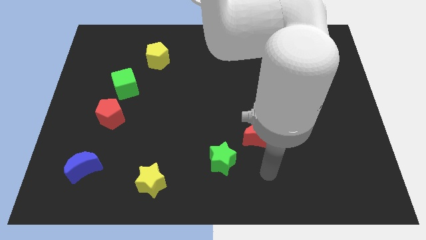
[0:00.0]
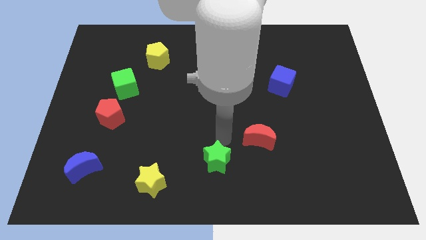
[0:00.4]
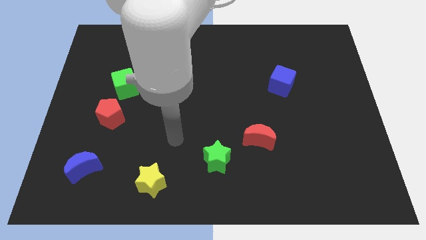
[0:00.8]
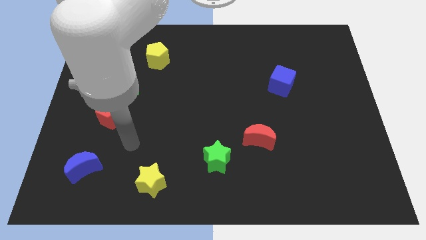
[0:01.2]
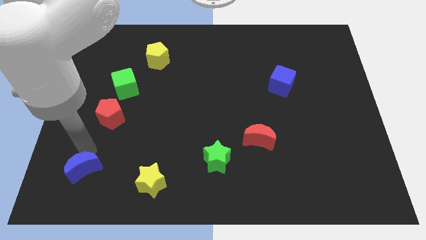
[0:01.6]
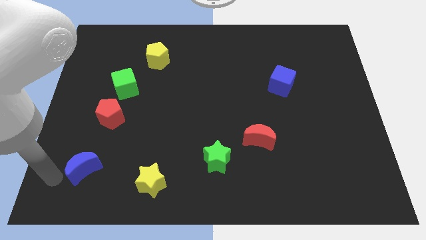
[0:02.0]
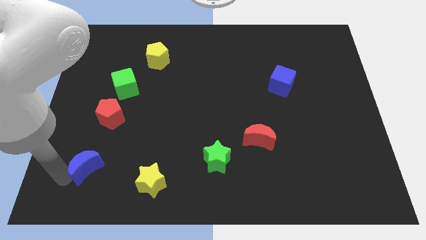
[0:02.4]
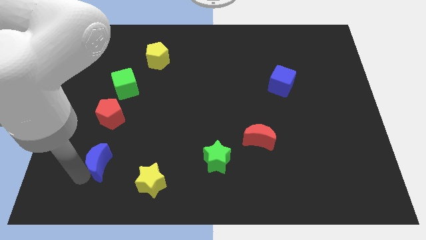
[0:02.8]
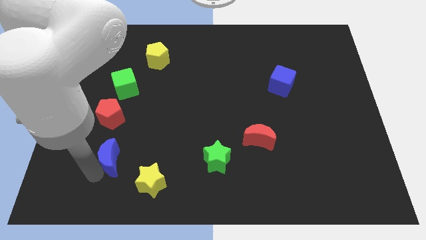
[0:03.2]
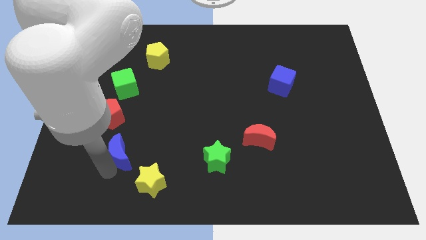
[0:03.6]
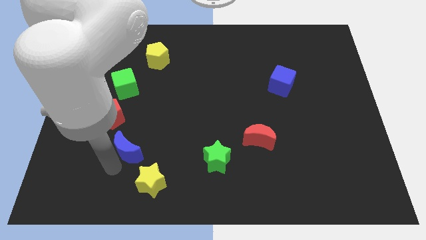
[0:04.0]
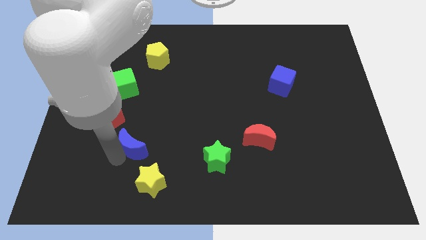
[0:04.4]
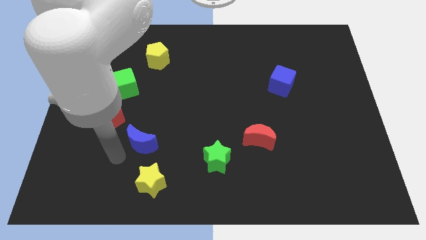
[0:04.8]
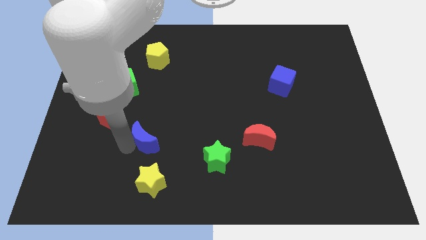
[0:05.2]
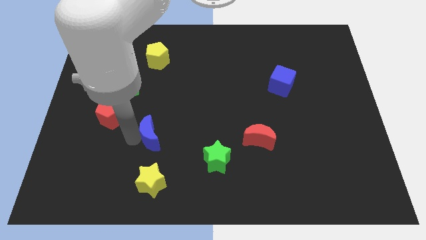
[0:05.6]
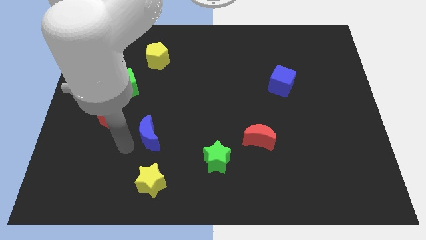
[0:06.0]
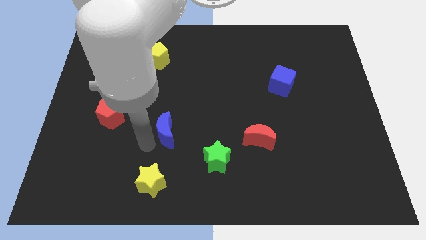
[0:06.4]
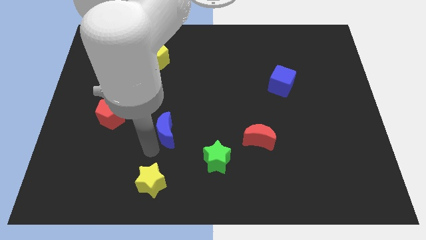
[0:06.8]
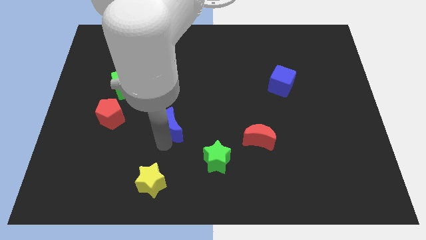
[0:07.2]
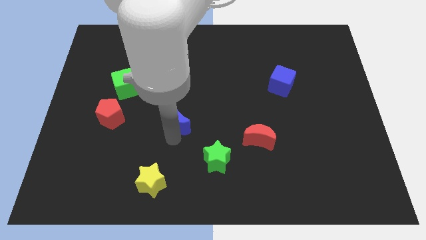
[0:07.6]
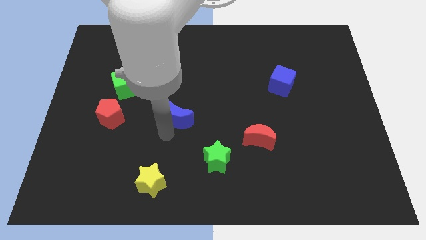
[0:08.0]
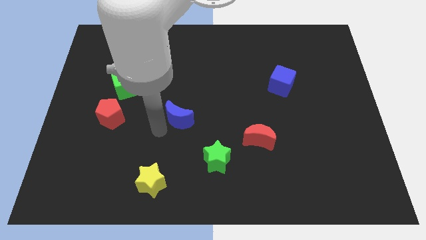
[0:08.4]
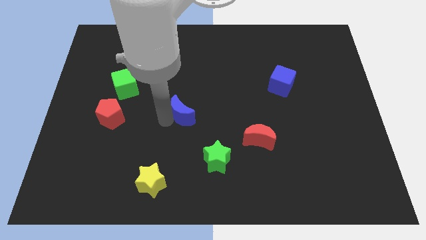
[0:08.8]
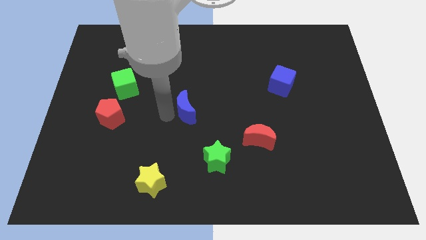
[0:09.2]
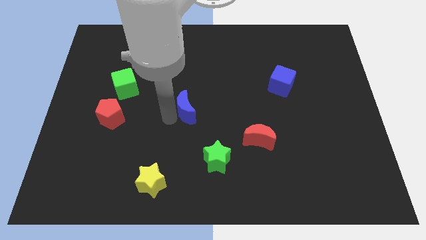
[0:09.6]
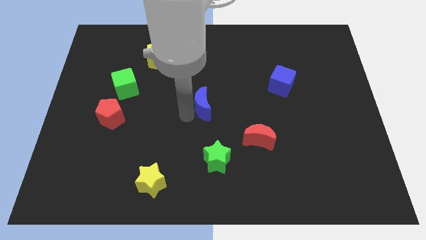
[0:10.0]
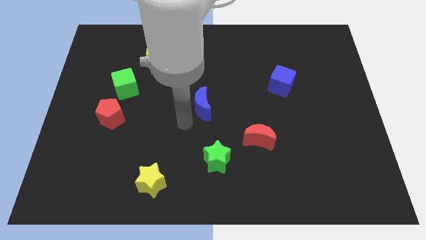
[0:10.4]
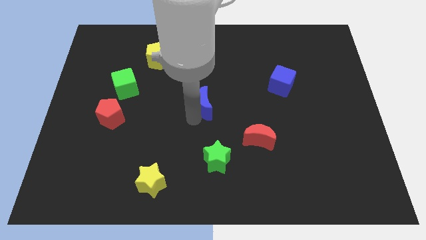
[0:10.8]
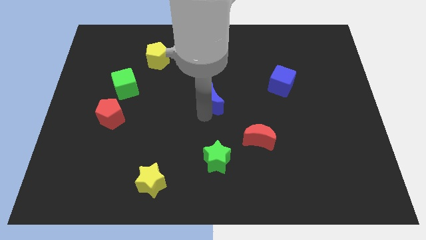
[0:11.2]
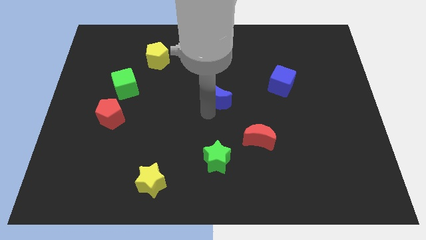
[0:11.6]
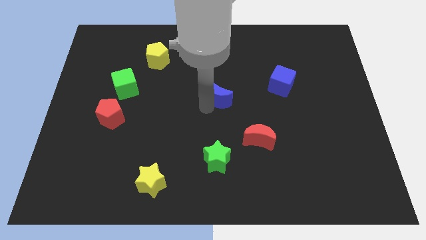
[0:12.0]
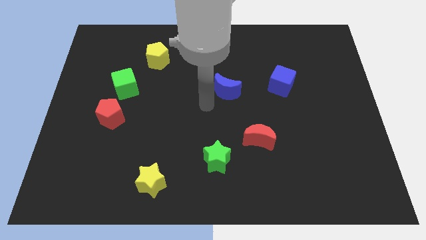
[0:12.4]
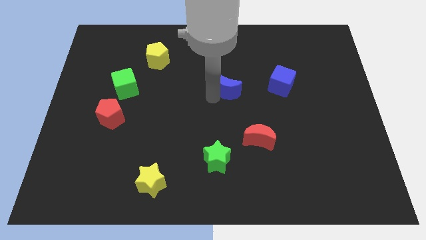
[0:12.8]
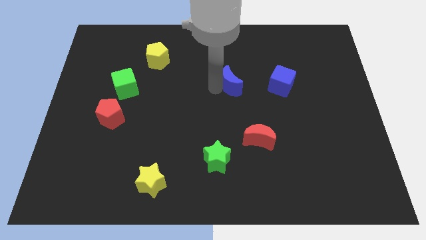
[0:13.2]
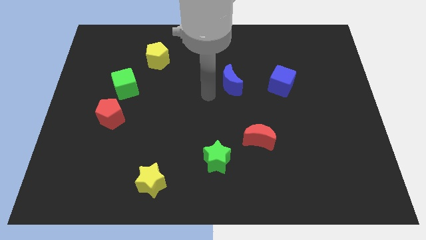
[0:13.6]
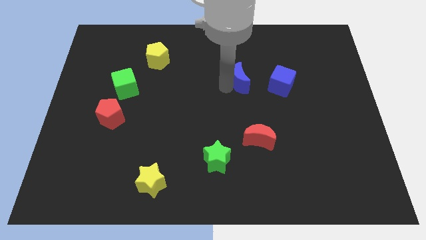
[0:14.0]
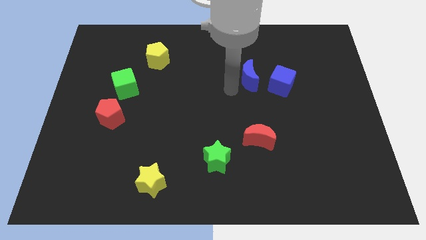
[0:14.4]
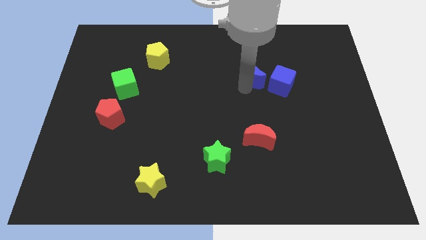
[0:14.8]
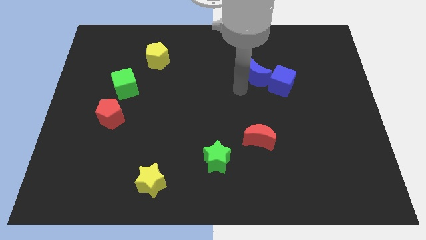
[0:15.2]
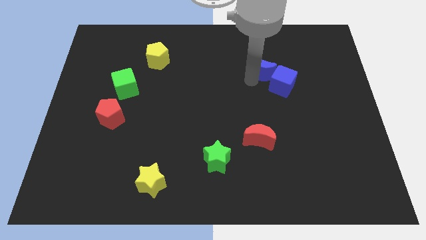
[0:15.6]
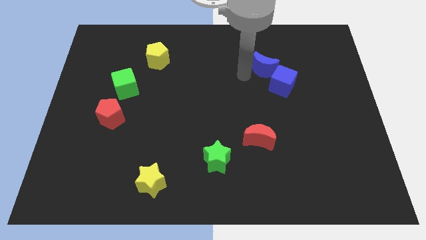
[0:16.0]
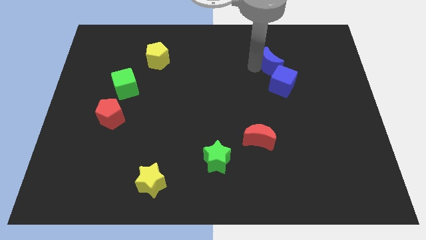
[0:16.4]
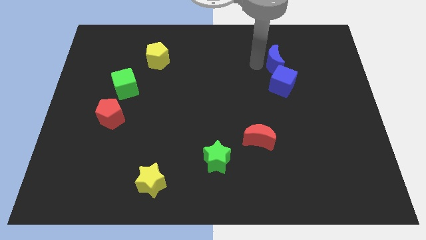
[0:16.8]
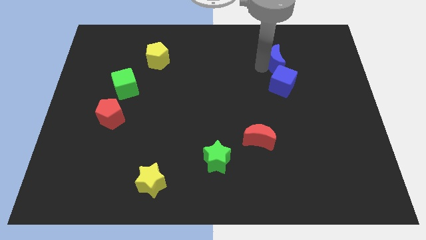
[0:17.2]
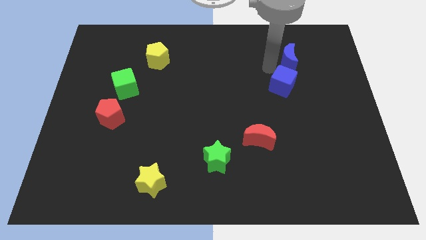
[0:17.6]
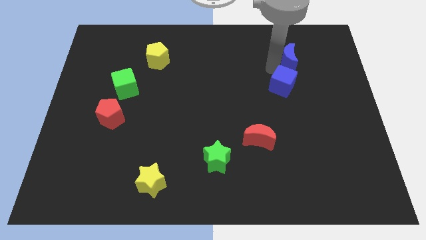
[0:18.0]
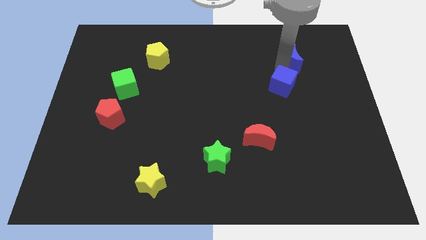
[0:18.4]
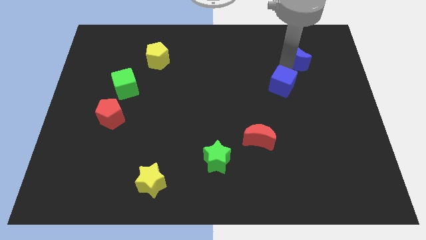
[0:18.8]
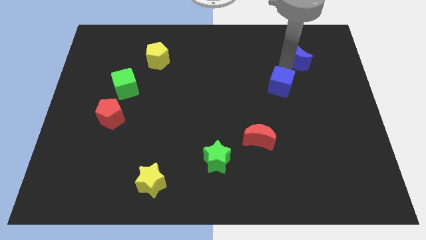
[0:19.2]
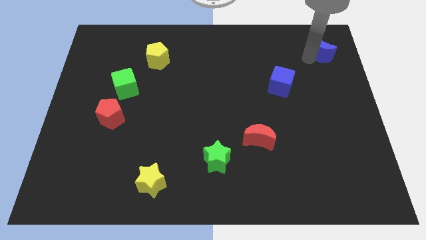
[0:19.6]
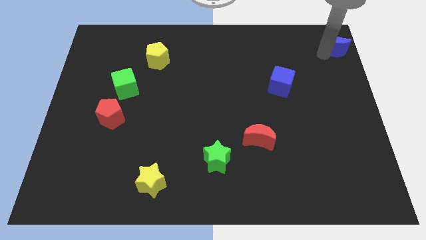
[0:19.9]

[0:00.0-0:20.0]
move the blue moon to the upper right corner

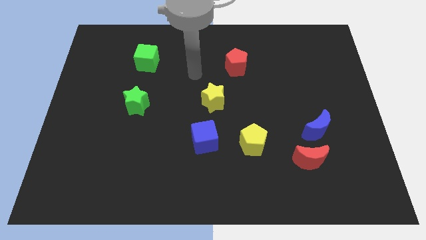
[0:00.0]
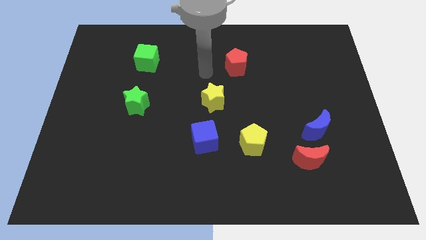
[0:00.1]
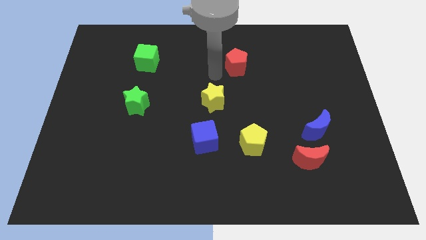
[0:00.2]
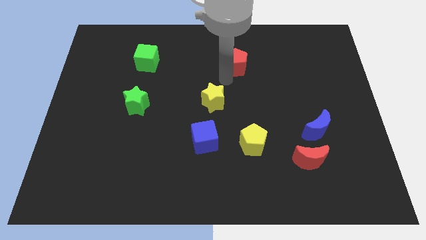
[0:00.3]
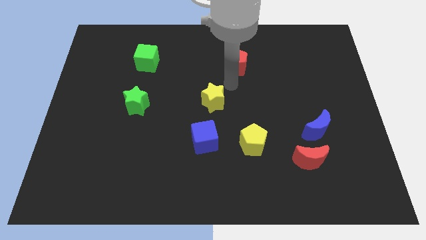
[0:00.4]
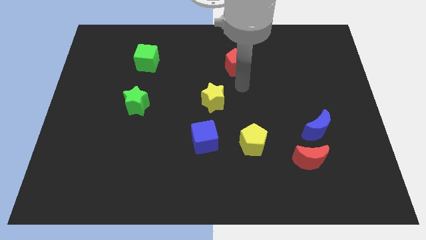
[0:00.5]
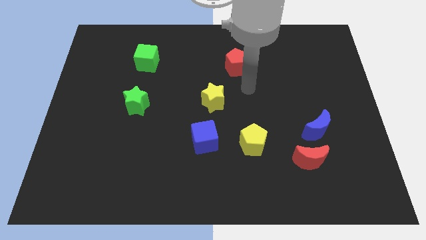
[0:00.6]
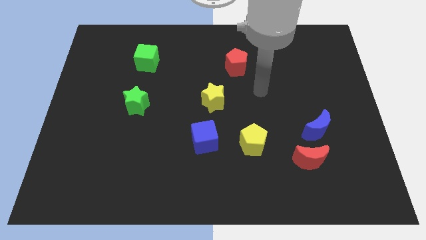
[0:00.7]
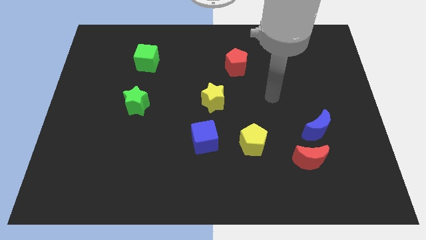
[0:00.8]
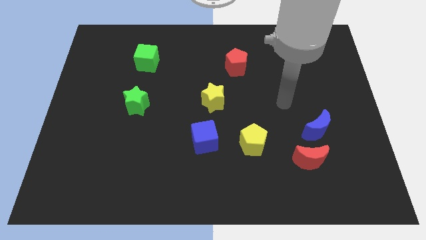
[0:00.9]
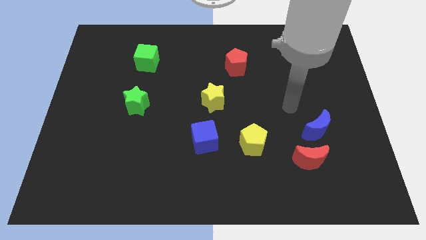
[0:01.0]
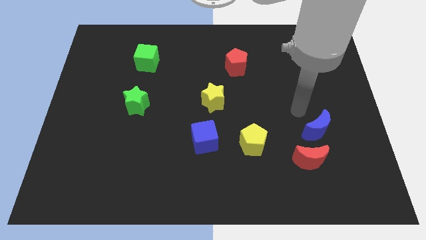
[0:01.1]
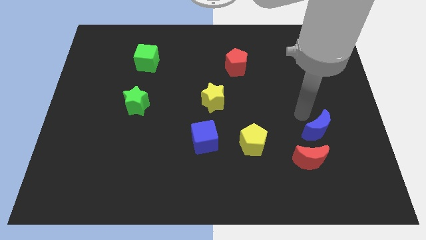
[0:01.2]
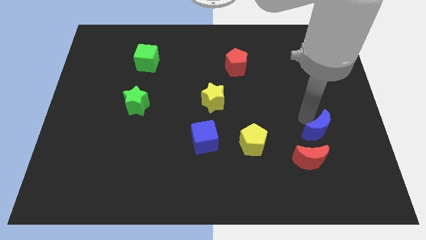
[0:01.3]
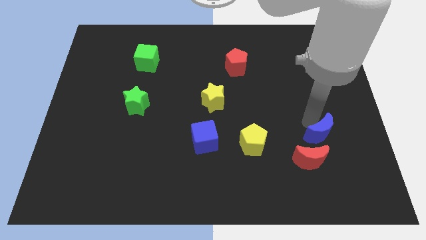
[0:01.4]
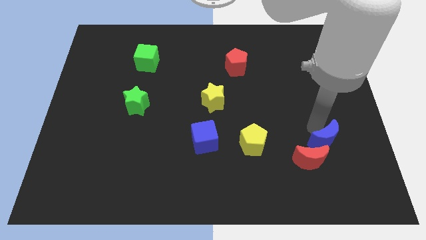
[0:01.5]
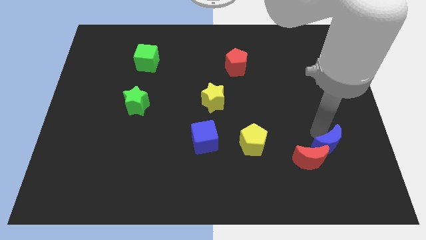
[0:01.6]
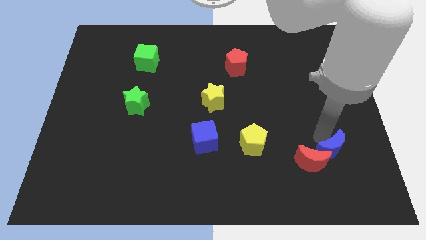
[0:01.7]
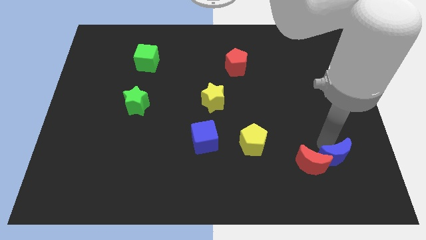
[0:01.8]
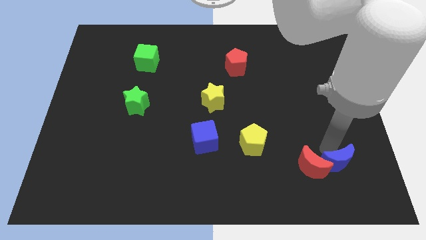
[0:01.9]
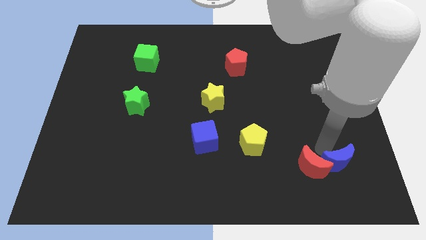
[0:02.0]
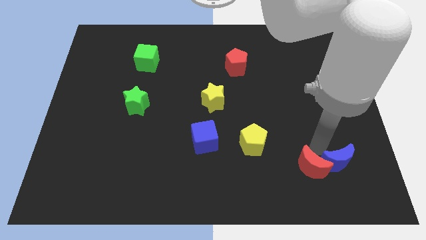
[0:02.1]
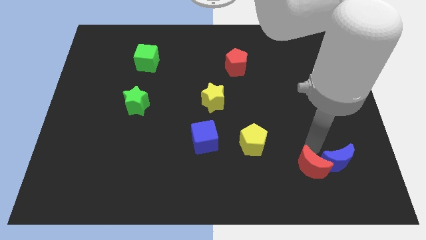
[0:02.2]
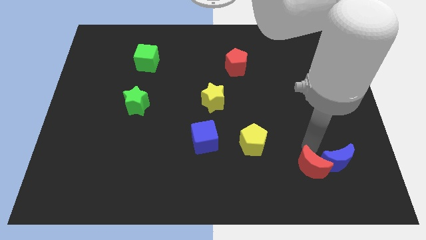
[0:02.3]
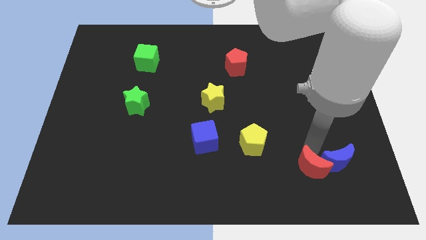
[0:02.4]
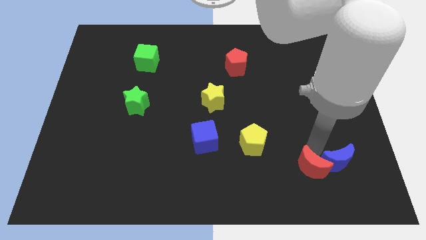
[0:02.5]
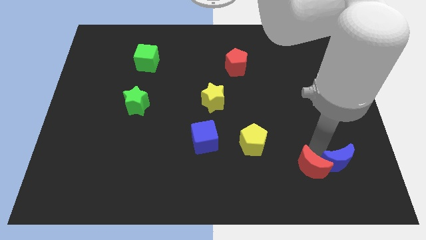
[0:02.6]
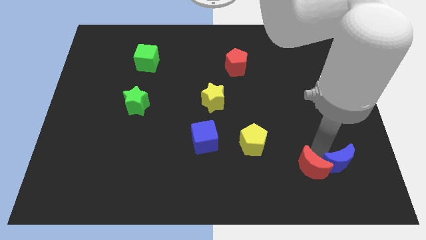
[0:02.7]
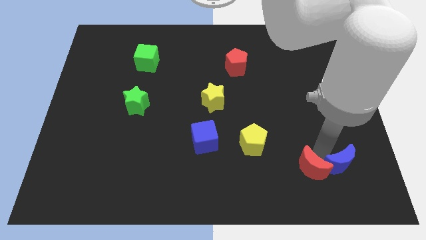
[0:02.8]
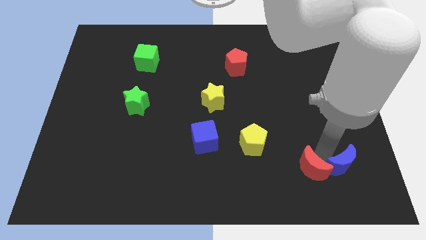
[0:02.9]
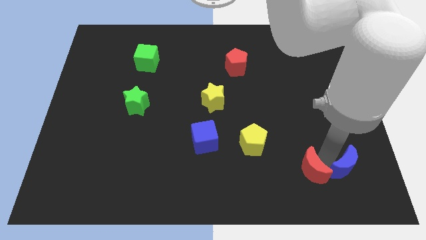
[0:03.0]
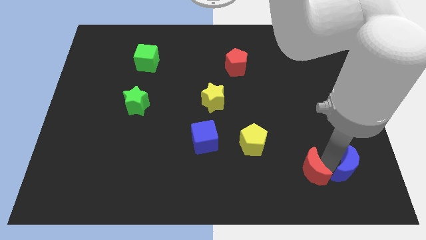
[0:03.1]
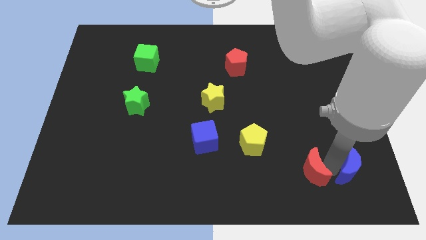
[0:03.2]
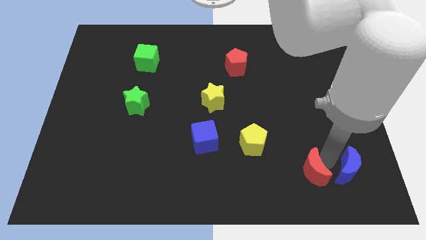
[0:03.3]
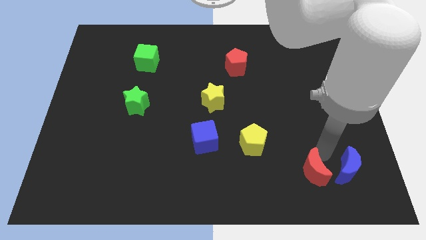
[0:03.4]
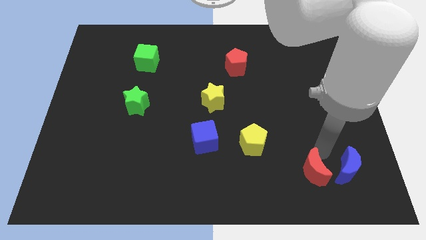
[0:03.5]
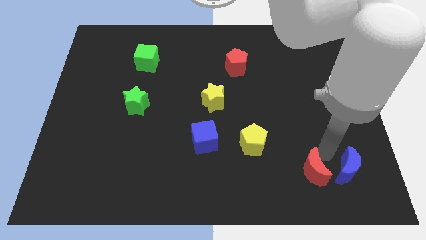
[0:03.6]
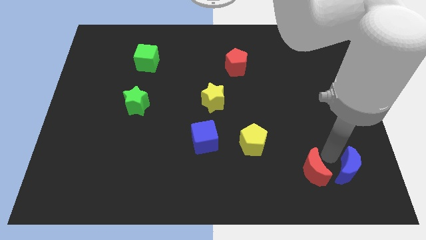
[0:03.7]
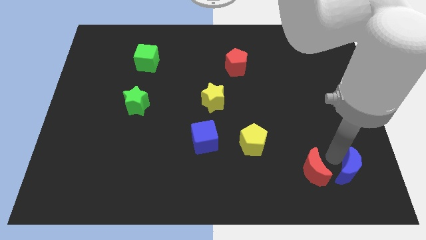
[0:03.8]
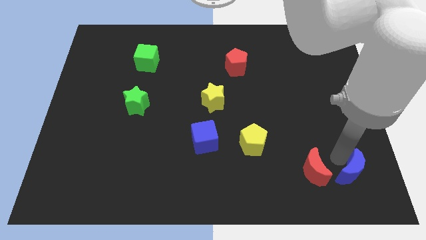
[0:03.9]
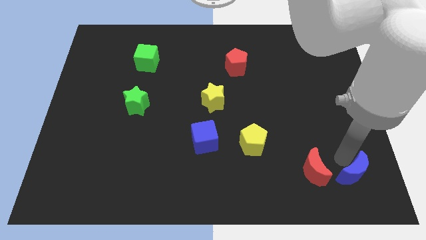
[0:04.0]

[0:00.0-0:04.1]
put the blue moon to the bottom right
